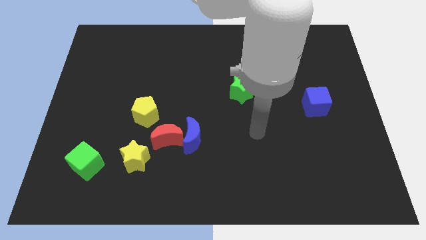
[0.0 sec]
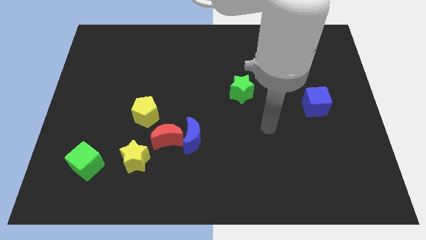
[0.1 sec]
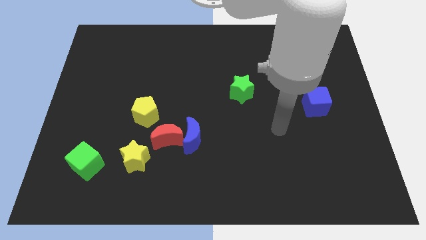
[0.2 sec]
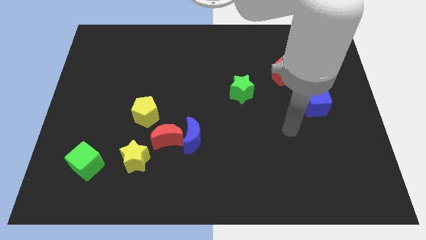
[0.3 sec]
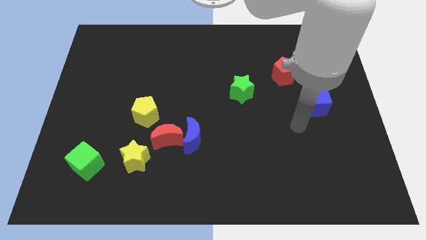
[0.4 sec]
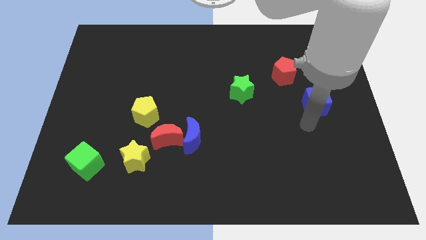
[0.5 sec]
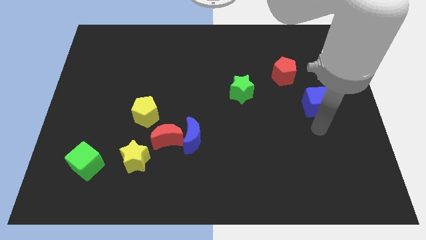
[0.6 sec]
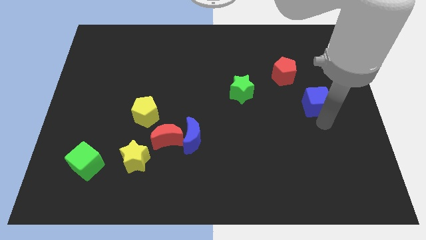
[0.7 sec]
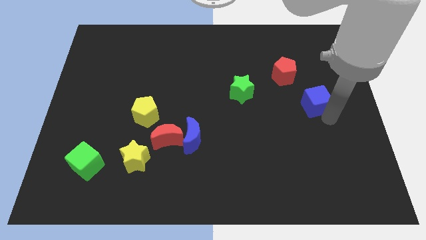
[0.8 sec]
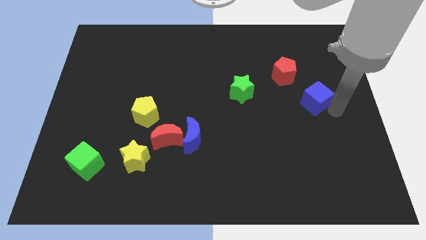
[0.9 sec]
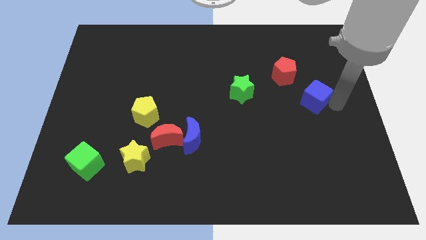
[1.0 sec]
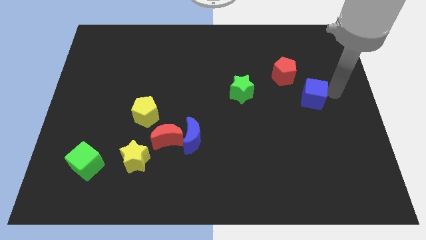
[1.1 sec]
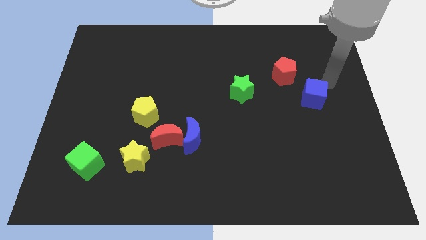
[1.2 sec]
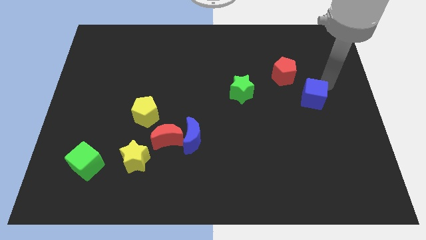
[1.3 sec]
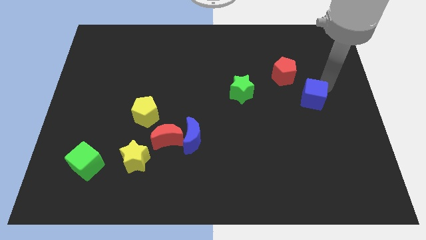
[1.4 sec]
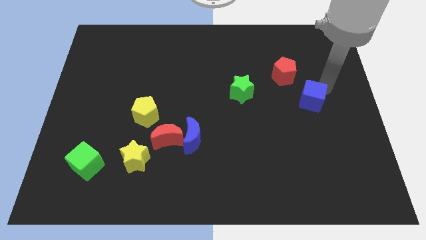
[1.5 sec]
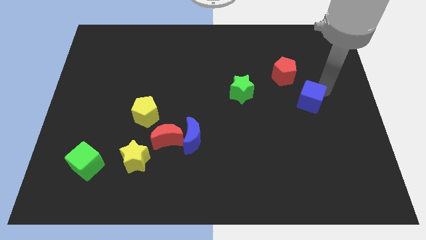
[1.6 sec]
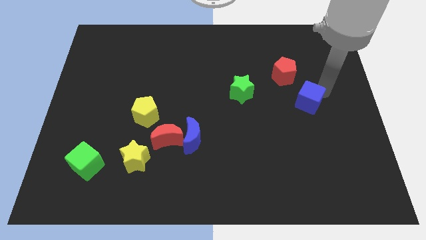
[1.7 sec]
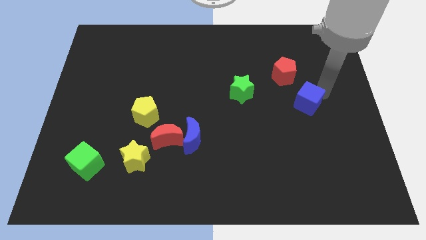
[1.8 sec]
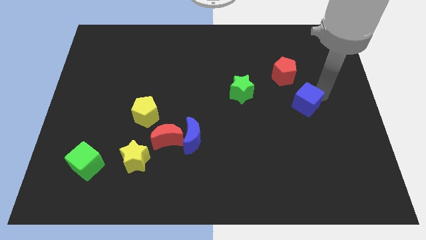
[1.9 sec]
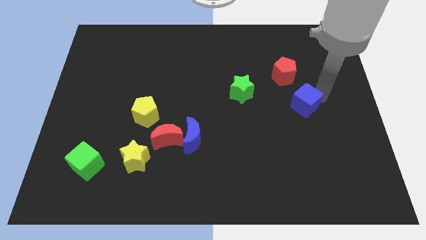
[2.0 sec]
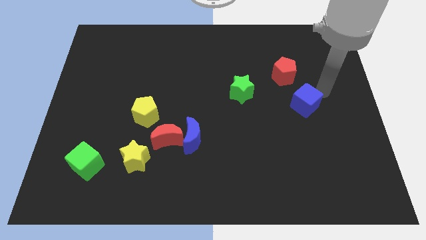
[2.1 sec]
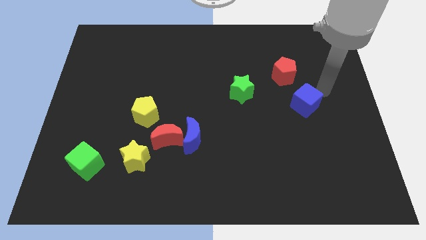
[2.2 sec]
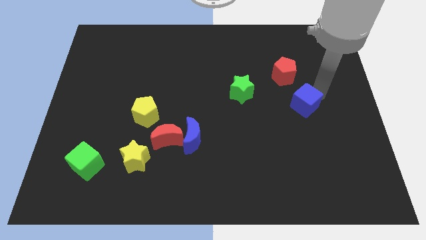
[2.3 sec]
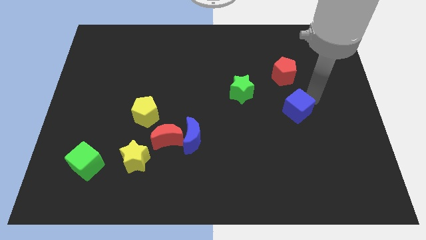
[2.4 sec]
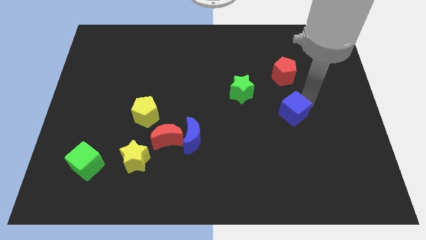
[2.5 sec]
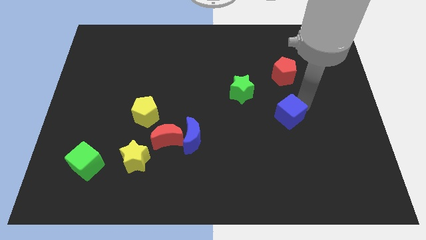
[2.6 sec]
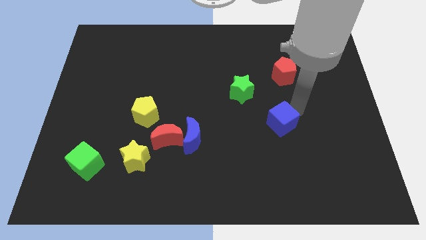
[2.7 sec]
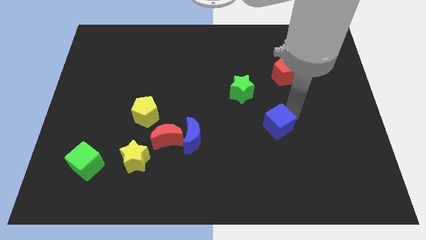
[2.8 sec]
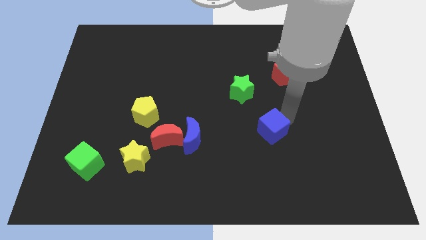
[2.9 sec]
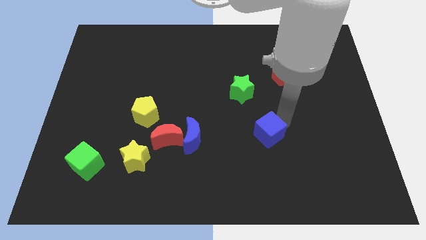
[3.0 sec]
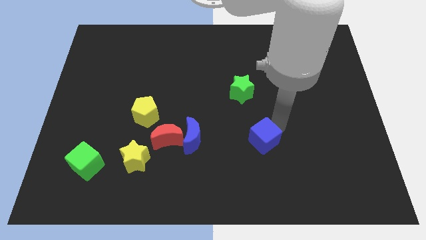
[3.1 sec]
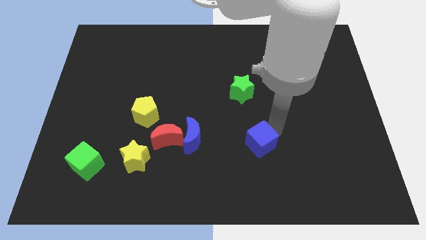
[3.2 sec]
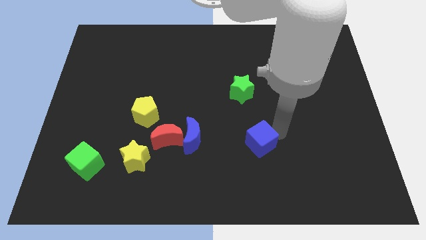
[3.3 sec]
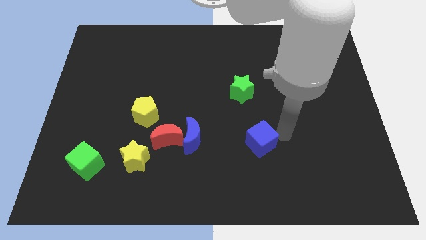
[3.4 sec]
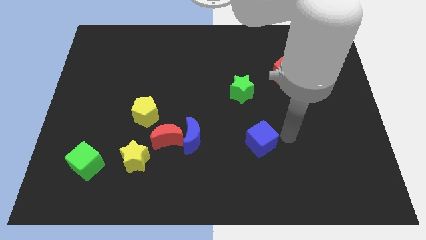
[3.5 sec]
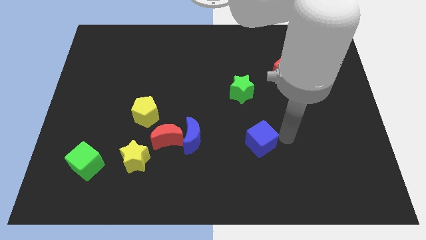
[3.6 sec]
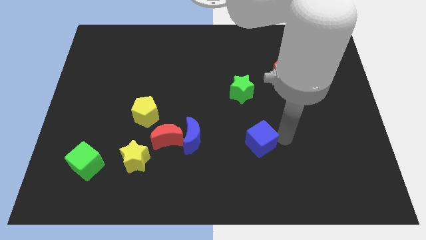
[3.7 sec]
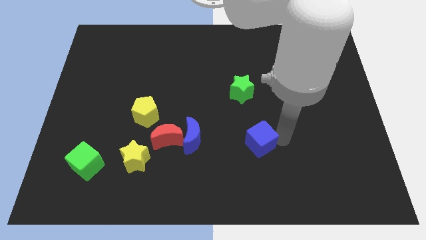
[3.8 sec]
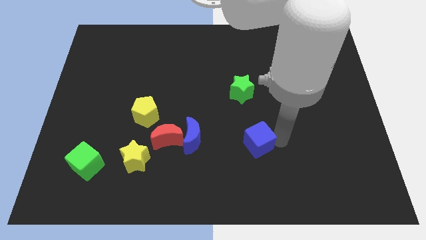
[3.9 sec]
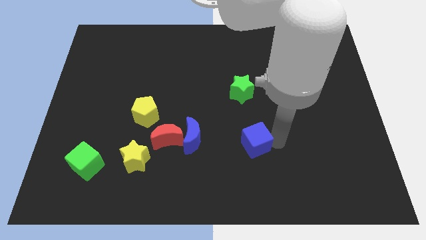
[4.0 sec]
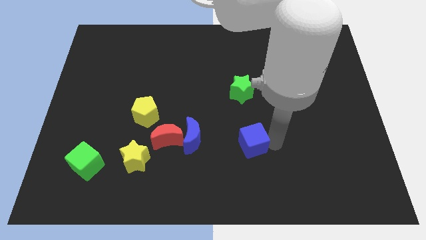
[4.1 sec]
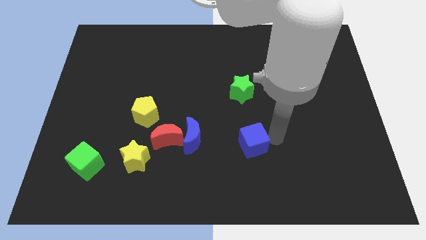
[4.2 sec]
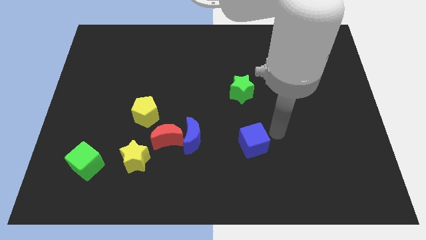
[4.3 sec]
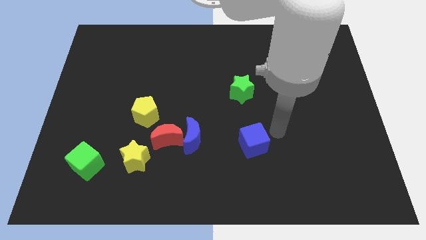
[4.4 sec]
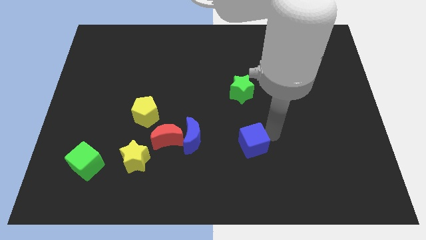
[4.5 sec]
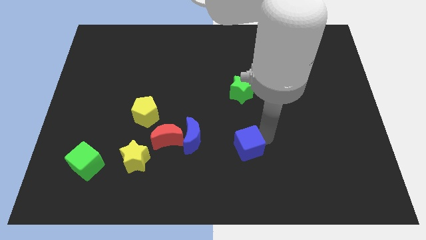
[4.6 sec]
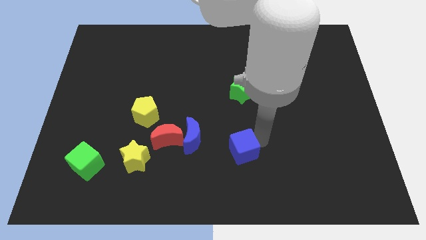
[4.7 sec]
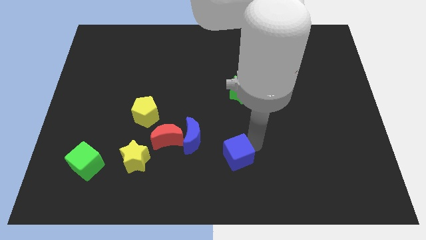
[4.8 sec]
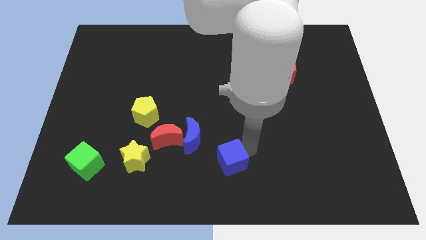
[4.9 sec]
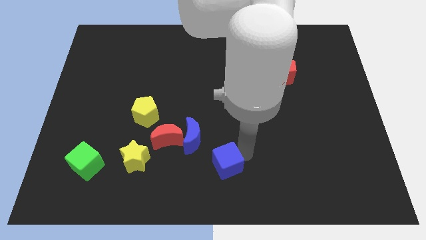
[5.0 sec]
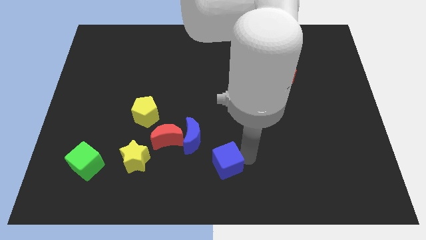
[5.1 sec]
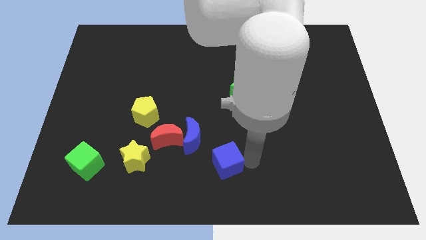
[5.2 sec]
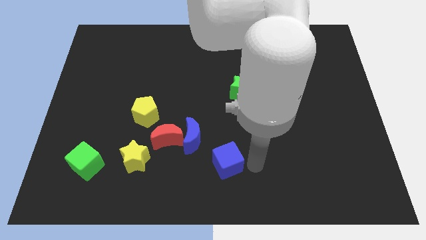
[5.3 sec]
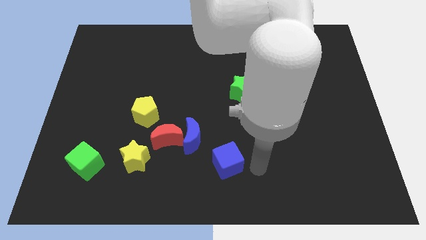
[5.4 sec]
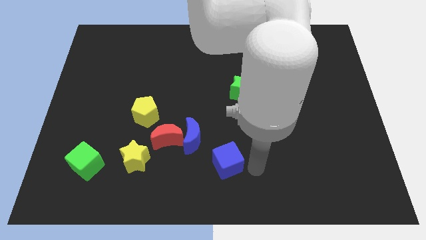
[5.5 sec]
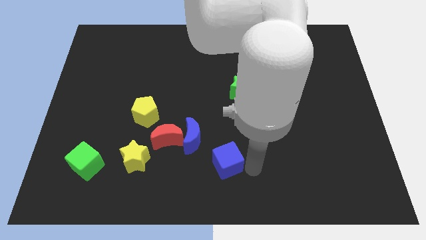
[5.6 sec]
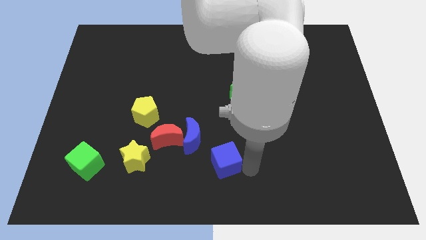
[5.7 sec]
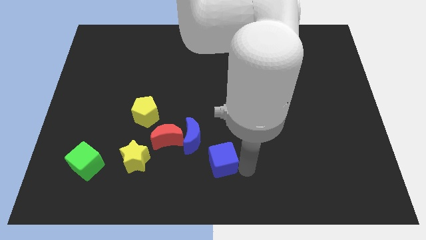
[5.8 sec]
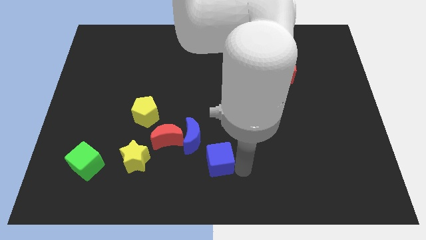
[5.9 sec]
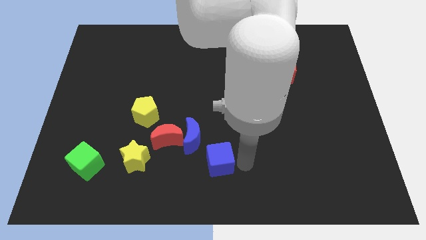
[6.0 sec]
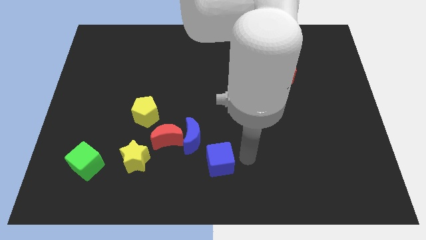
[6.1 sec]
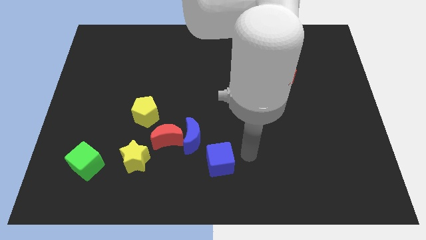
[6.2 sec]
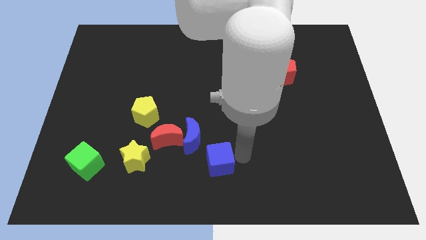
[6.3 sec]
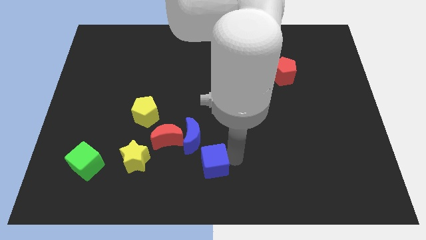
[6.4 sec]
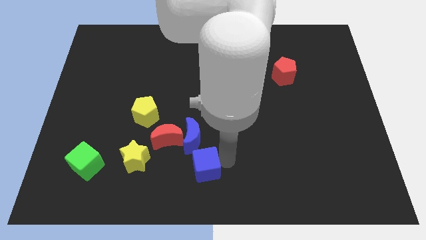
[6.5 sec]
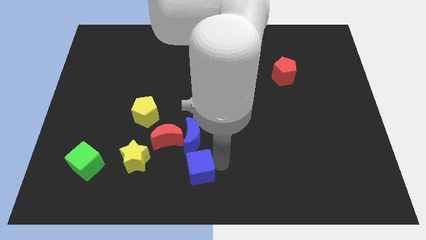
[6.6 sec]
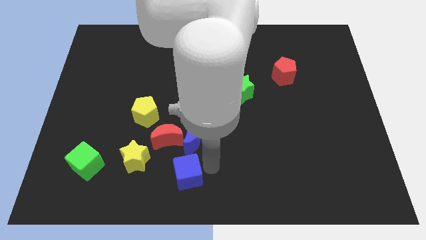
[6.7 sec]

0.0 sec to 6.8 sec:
move the blue cube to the bottom of the red moon

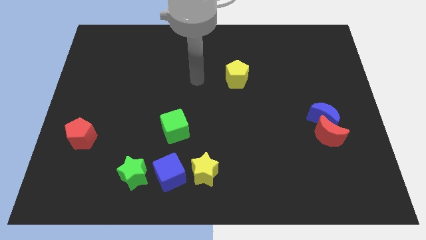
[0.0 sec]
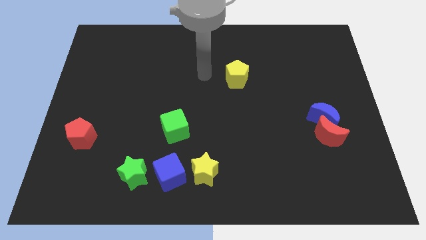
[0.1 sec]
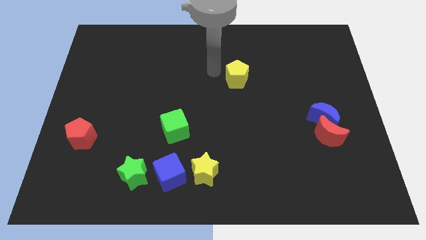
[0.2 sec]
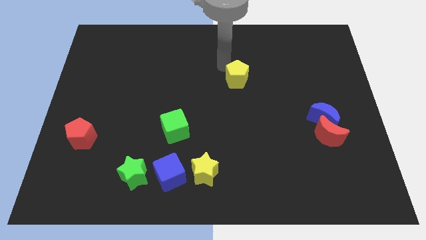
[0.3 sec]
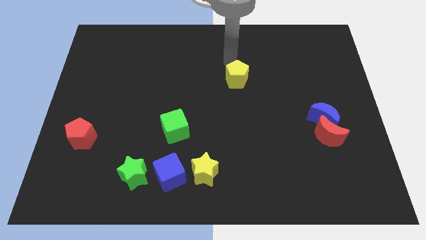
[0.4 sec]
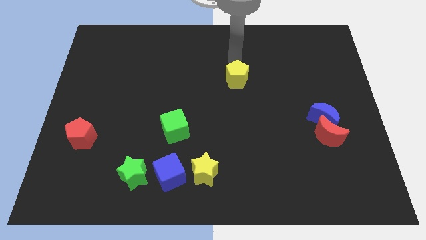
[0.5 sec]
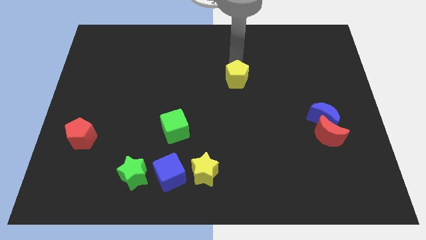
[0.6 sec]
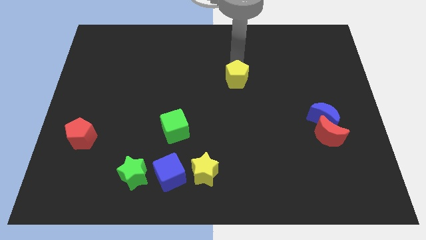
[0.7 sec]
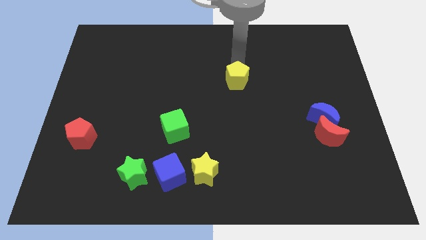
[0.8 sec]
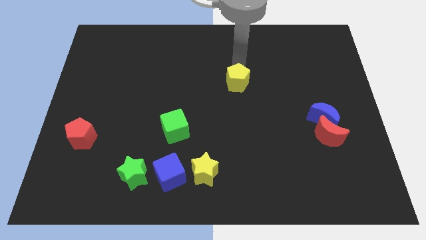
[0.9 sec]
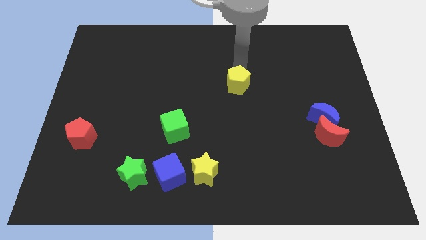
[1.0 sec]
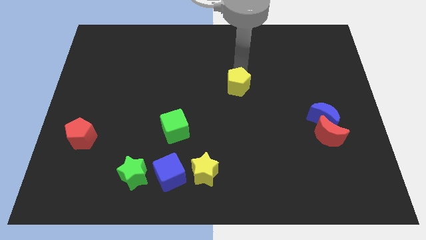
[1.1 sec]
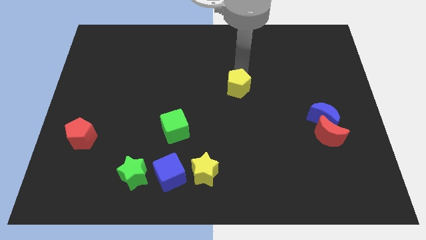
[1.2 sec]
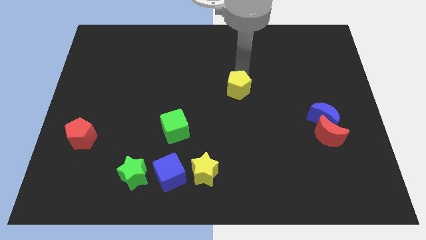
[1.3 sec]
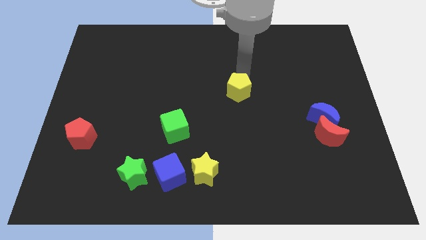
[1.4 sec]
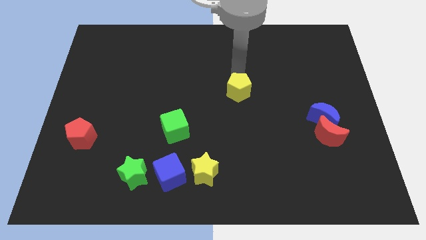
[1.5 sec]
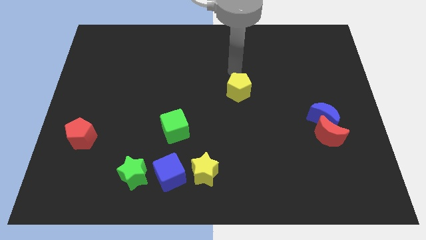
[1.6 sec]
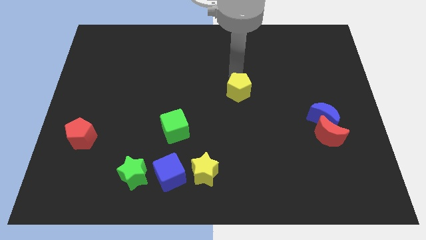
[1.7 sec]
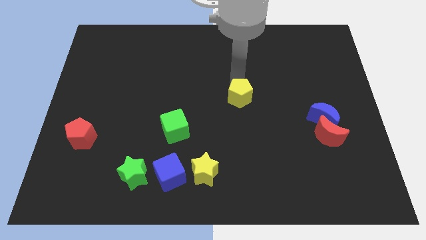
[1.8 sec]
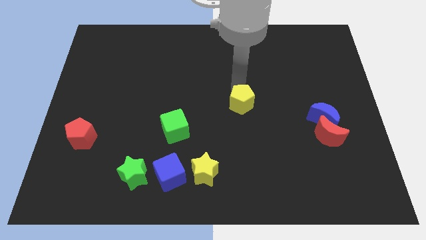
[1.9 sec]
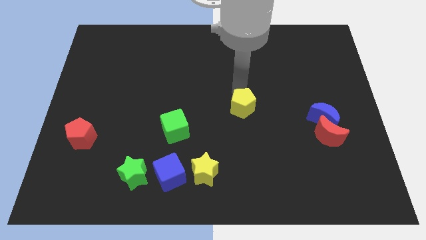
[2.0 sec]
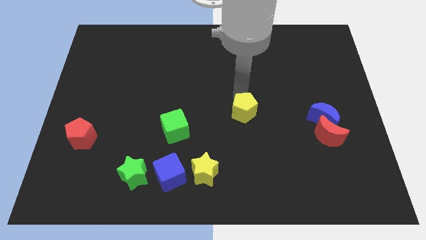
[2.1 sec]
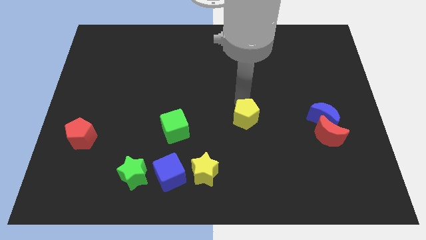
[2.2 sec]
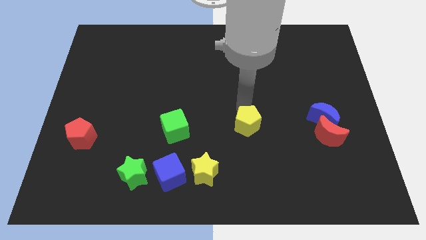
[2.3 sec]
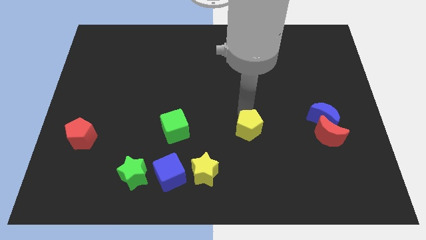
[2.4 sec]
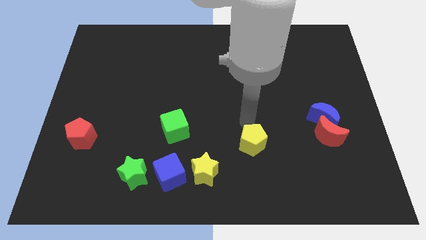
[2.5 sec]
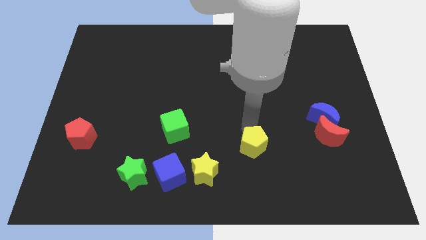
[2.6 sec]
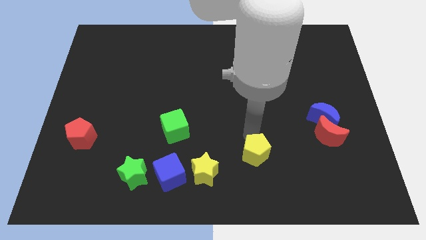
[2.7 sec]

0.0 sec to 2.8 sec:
move the yellow pentagon to the right of the yellow star
